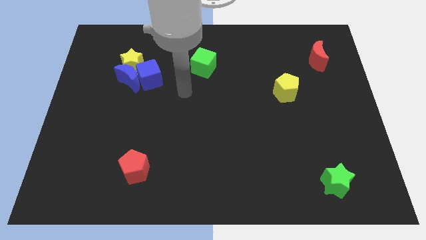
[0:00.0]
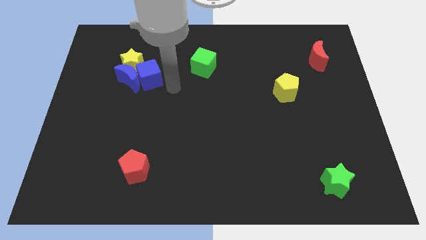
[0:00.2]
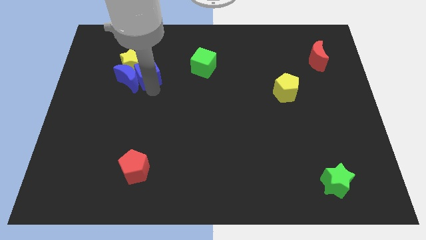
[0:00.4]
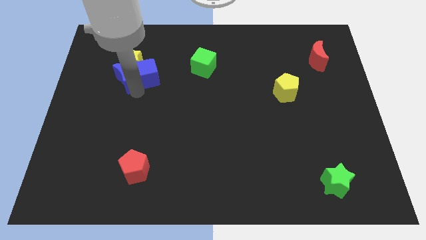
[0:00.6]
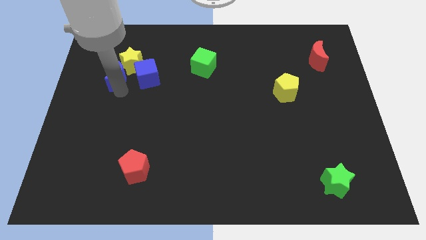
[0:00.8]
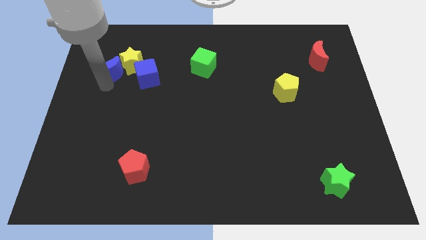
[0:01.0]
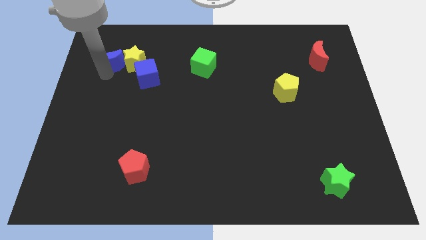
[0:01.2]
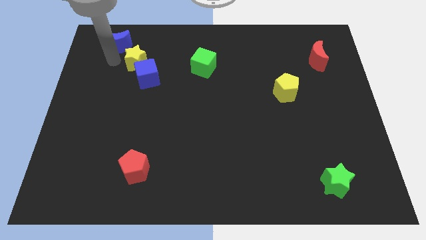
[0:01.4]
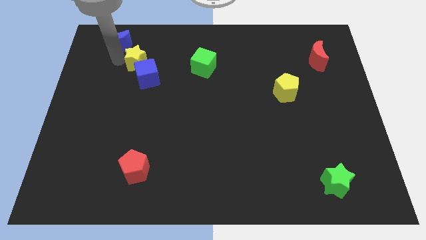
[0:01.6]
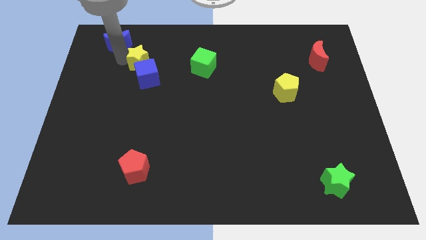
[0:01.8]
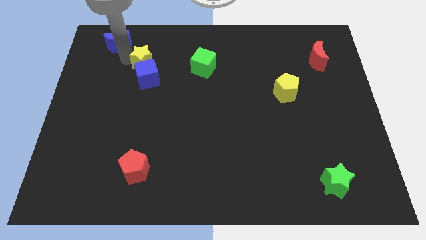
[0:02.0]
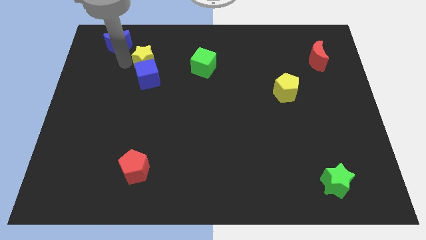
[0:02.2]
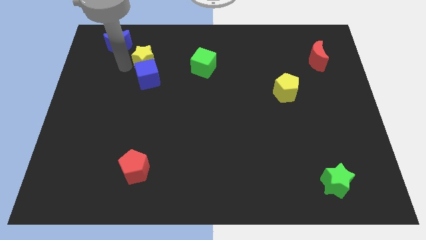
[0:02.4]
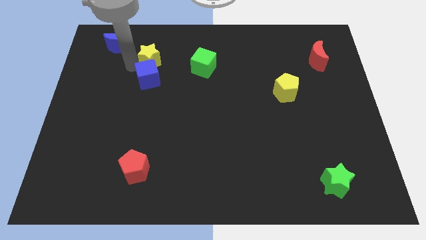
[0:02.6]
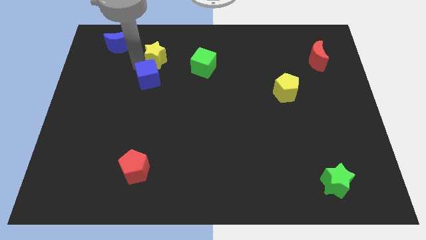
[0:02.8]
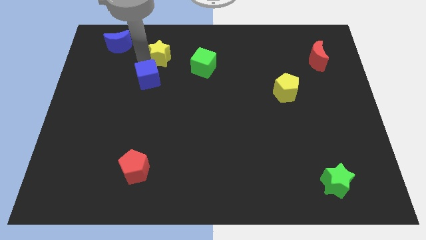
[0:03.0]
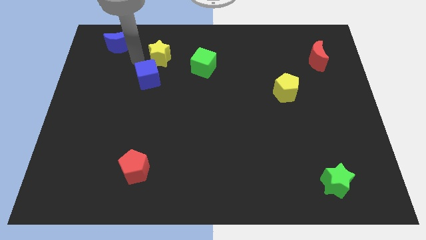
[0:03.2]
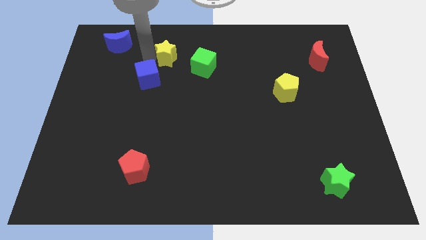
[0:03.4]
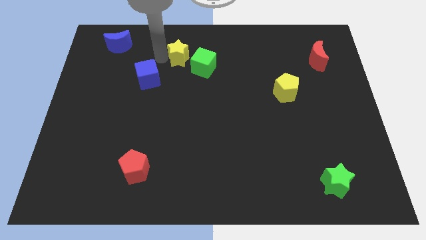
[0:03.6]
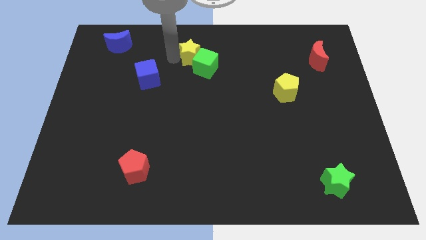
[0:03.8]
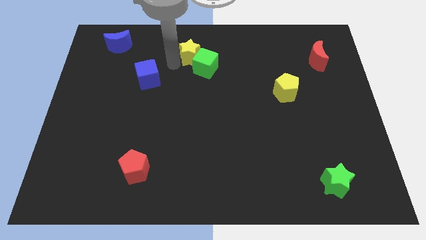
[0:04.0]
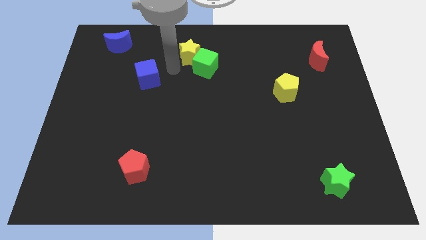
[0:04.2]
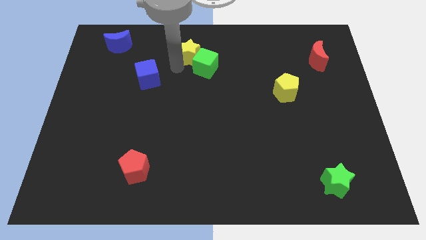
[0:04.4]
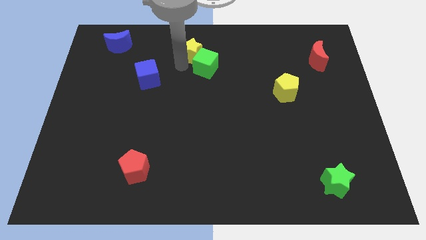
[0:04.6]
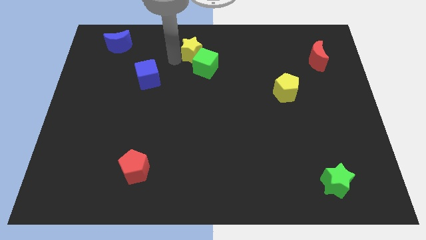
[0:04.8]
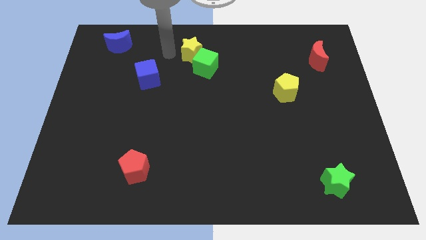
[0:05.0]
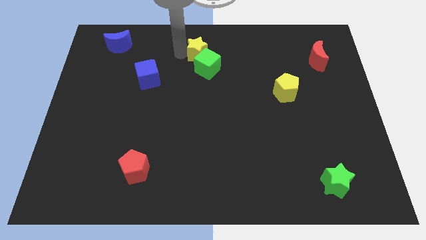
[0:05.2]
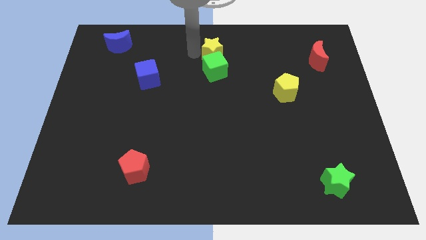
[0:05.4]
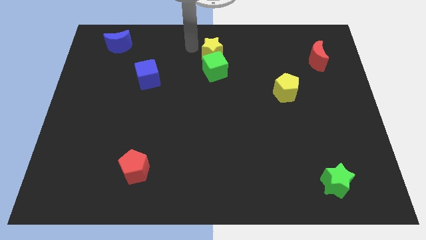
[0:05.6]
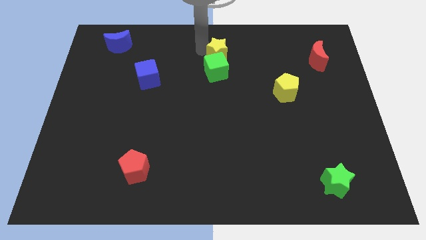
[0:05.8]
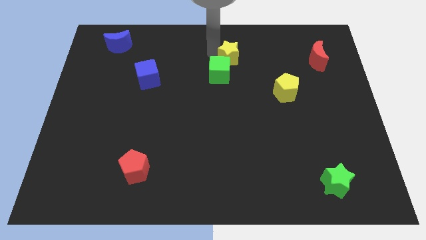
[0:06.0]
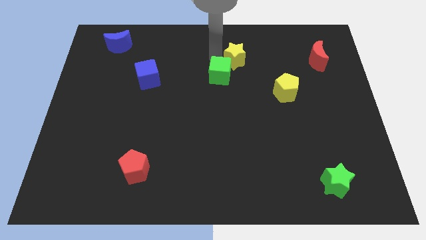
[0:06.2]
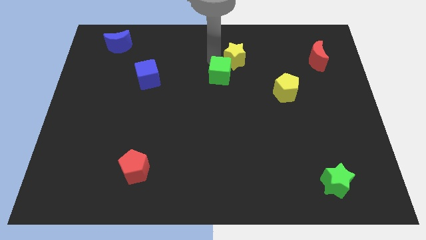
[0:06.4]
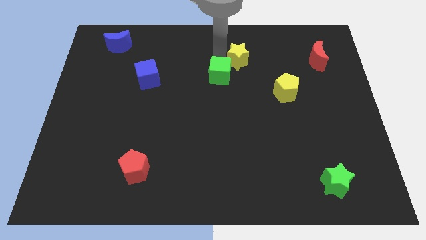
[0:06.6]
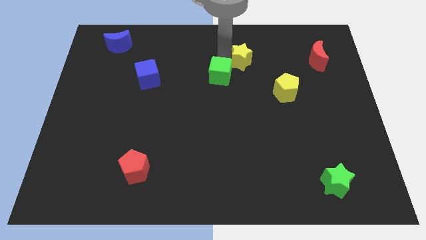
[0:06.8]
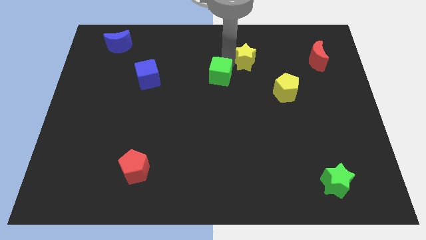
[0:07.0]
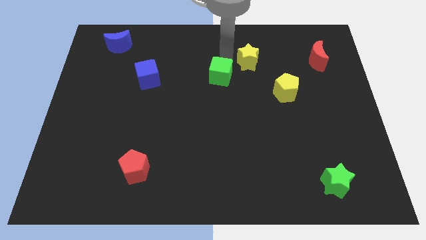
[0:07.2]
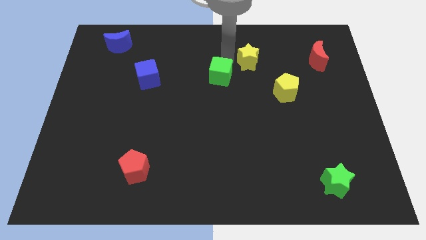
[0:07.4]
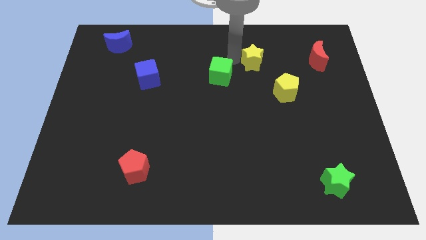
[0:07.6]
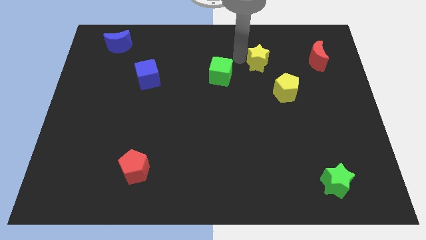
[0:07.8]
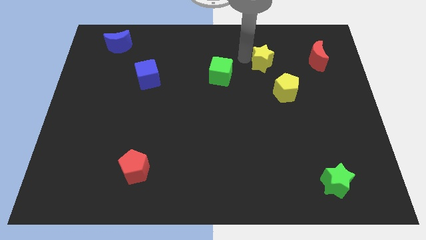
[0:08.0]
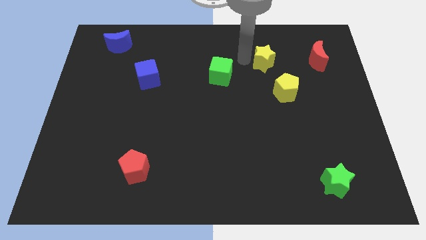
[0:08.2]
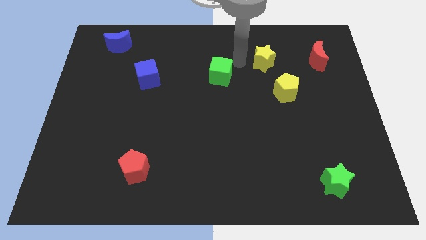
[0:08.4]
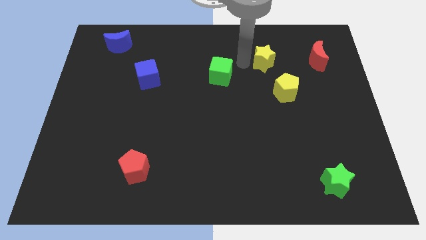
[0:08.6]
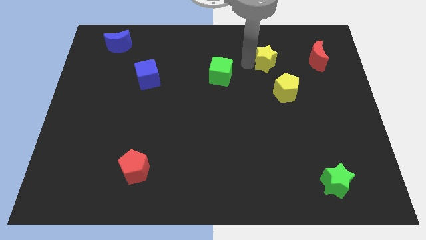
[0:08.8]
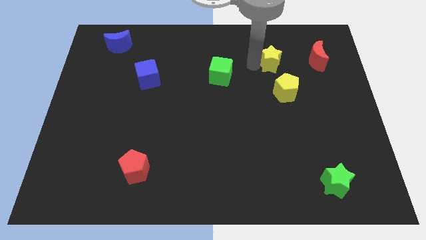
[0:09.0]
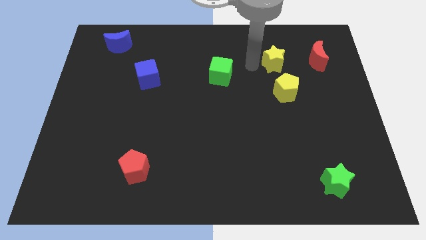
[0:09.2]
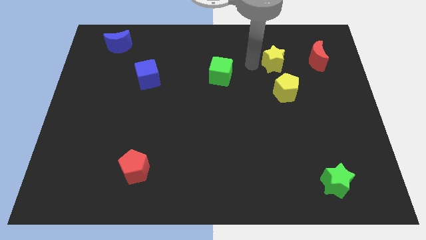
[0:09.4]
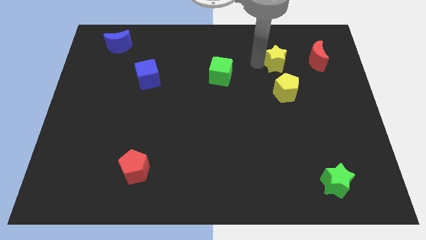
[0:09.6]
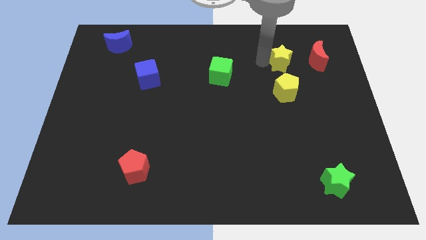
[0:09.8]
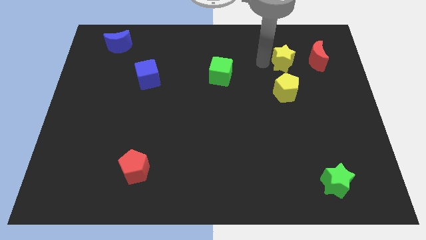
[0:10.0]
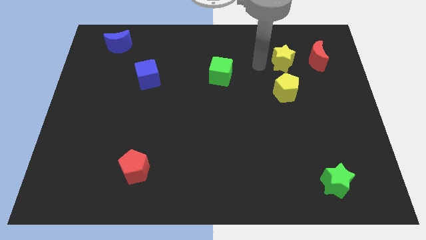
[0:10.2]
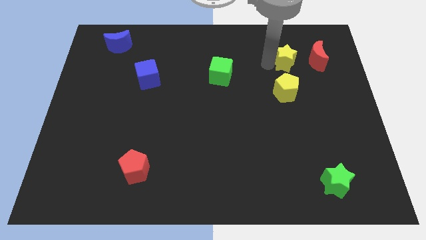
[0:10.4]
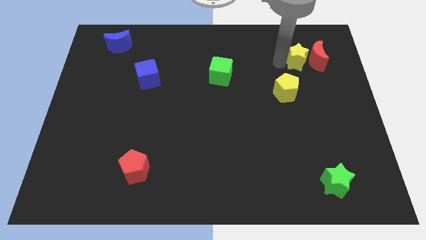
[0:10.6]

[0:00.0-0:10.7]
slide the yellow star next to the red moon

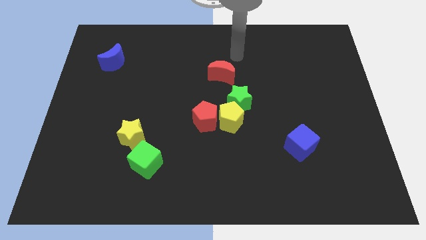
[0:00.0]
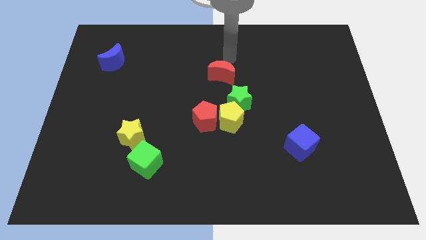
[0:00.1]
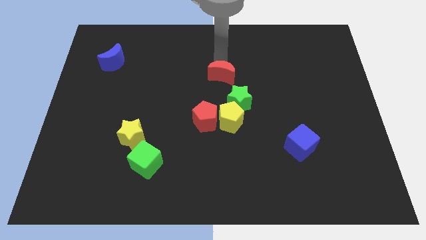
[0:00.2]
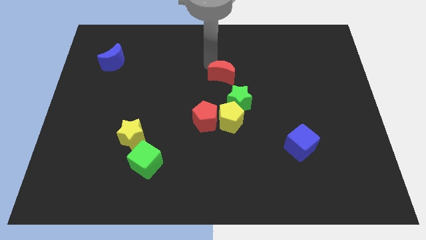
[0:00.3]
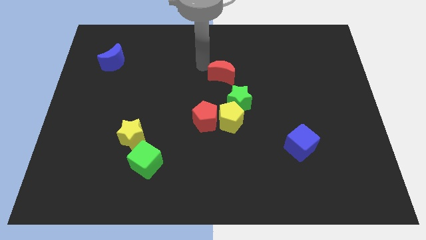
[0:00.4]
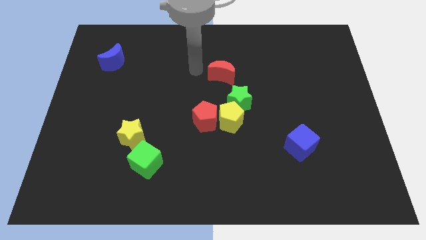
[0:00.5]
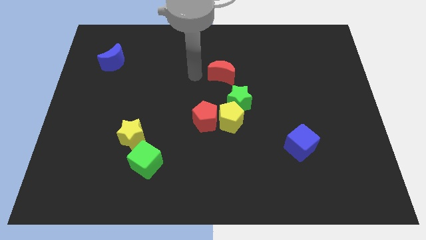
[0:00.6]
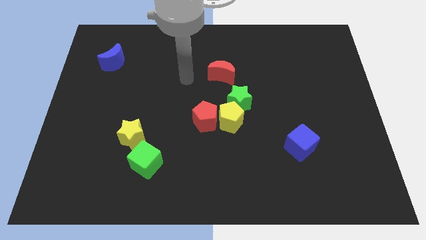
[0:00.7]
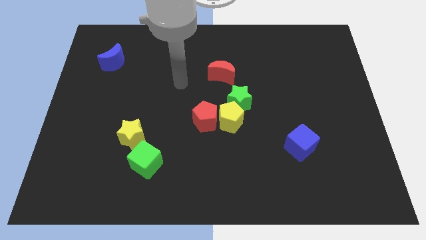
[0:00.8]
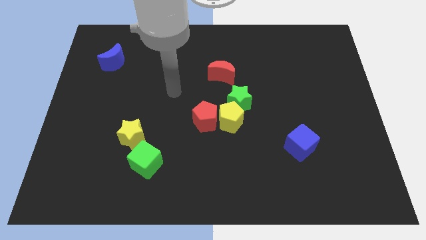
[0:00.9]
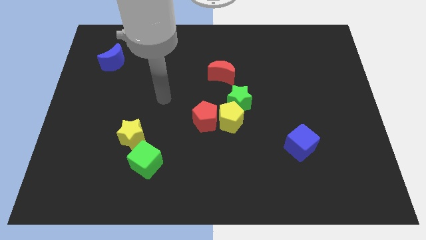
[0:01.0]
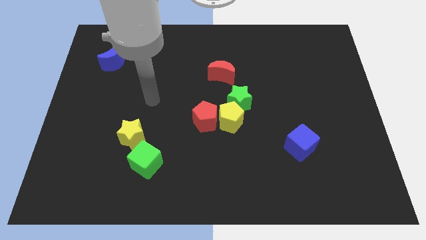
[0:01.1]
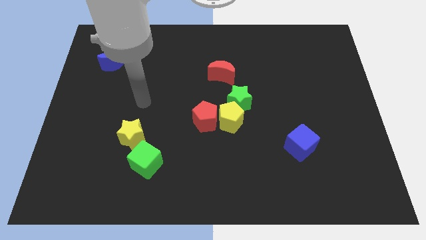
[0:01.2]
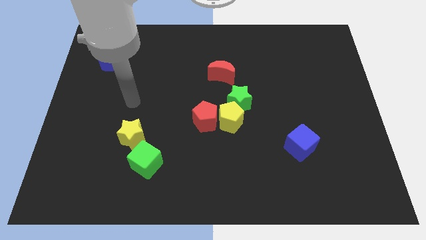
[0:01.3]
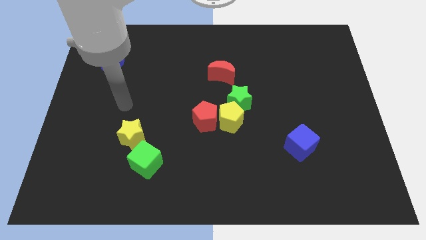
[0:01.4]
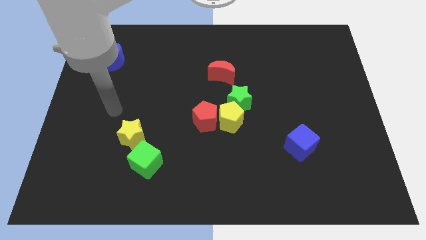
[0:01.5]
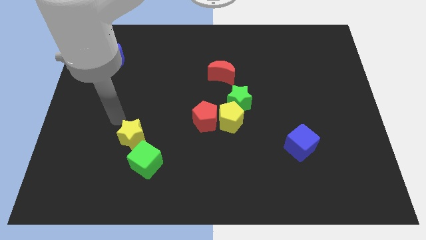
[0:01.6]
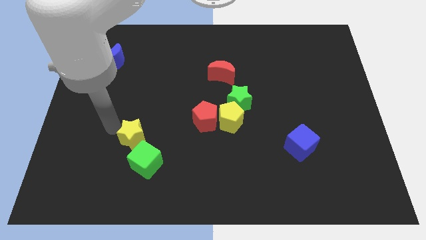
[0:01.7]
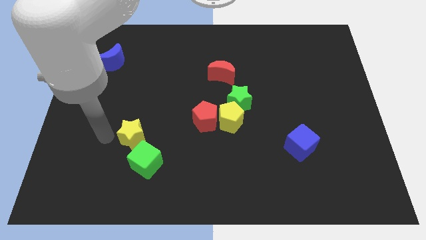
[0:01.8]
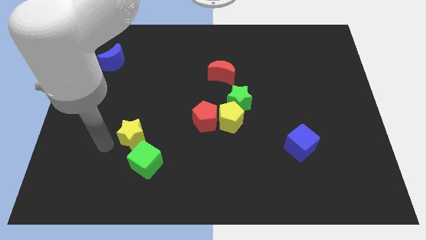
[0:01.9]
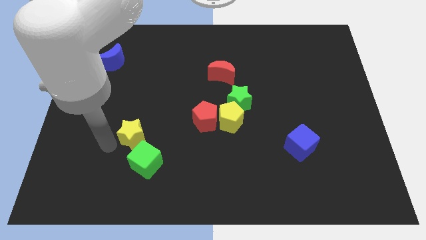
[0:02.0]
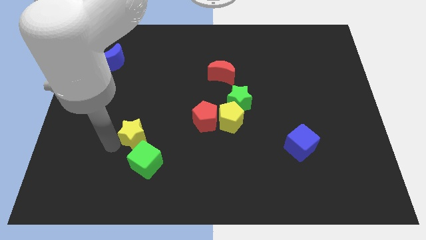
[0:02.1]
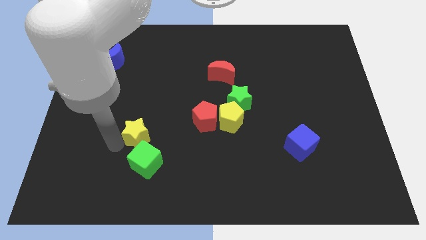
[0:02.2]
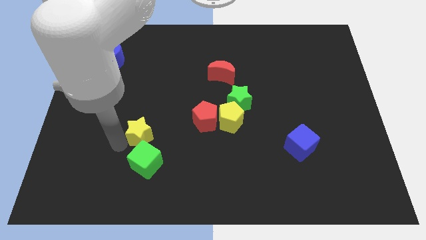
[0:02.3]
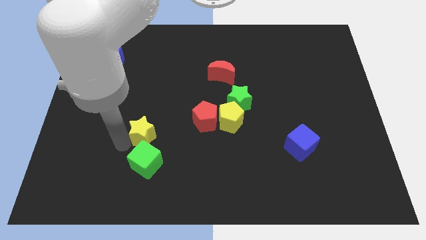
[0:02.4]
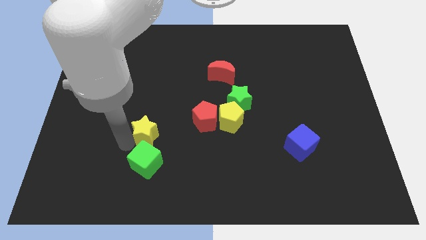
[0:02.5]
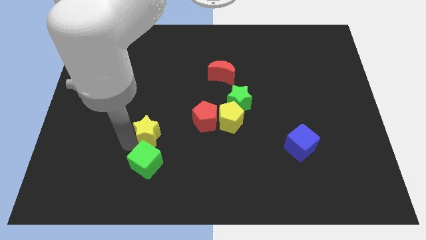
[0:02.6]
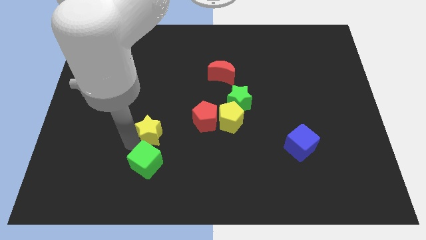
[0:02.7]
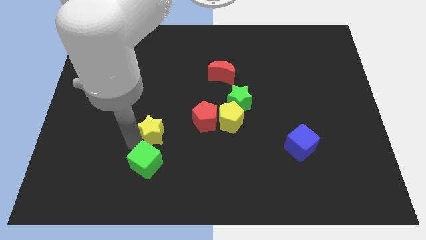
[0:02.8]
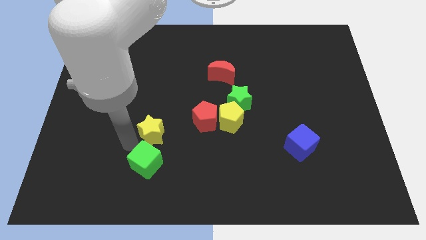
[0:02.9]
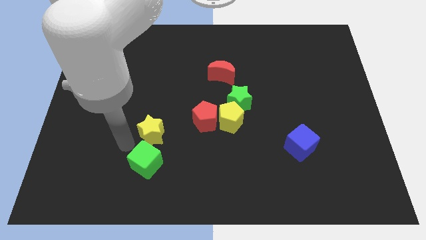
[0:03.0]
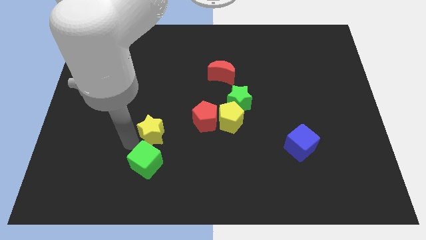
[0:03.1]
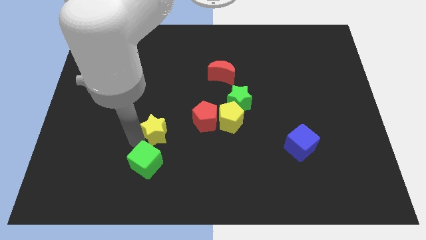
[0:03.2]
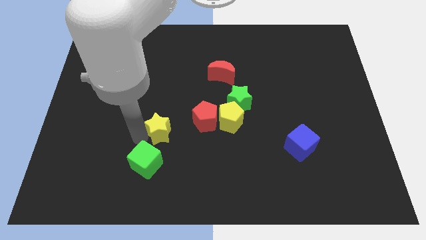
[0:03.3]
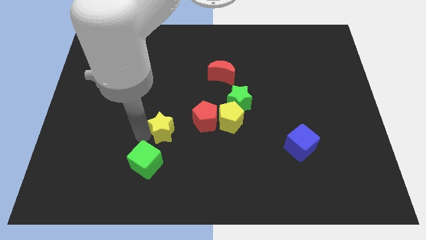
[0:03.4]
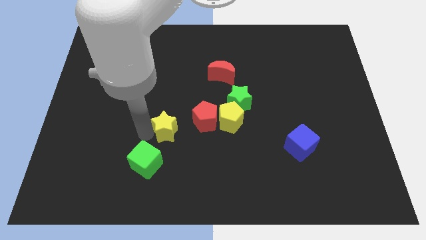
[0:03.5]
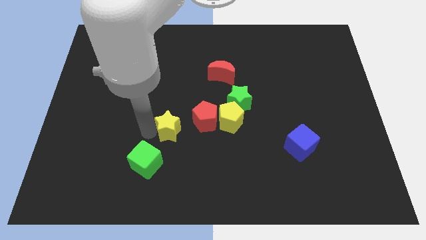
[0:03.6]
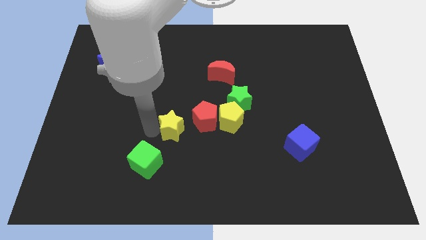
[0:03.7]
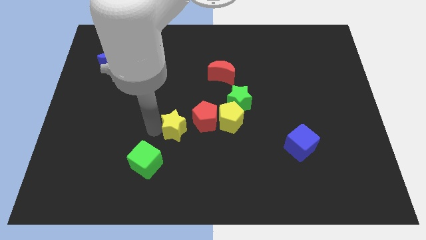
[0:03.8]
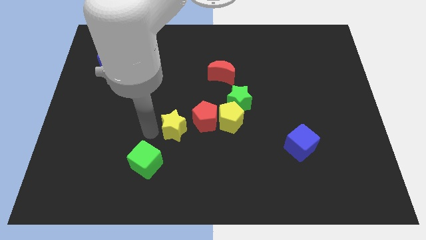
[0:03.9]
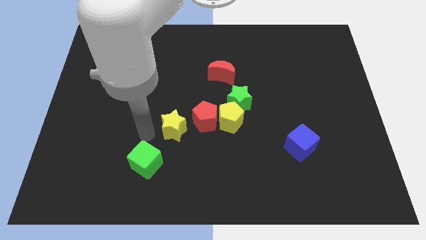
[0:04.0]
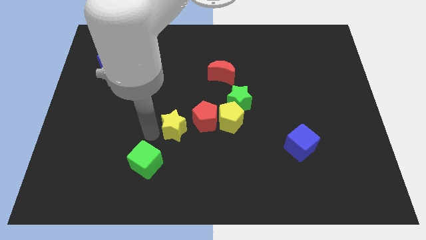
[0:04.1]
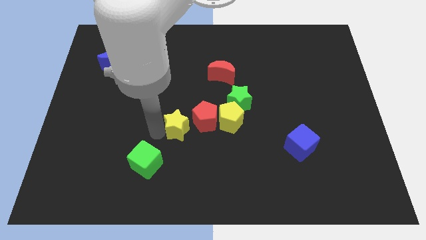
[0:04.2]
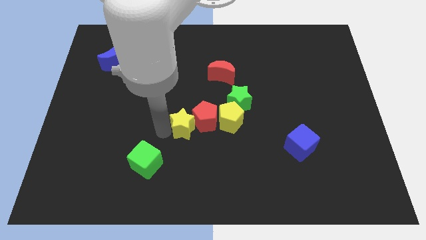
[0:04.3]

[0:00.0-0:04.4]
slide the yellow star towards the red pentagon
